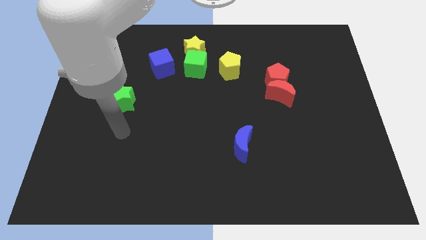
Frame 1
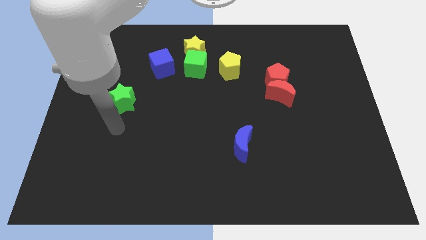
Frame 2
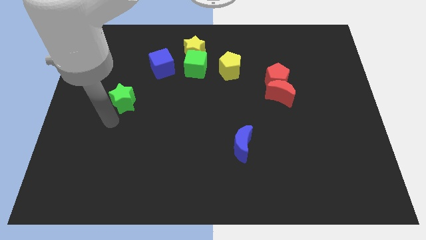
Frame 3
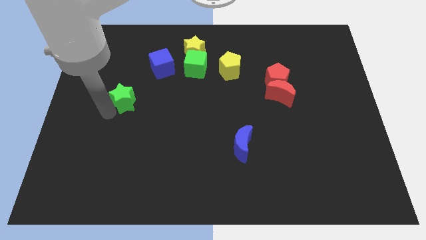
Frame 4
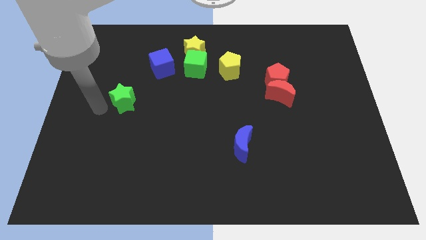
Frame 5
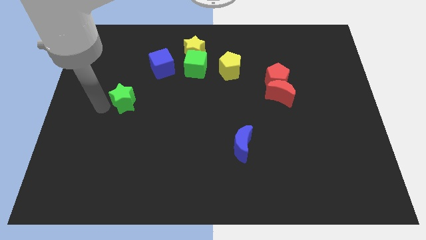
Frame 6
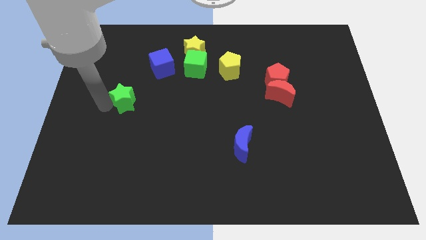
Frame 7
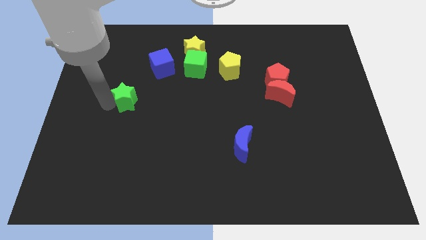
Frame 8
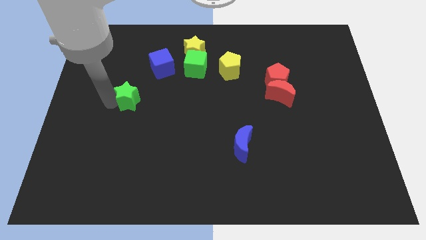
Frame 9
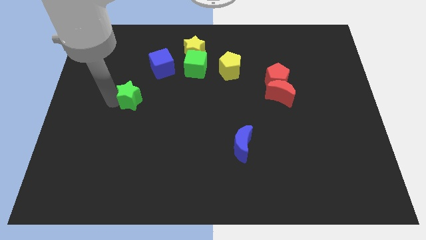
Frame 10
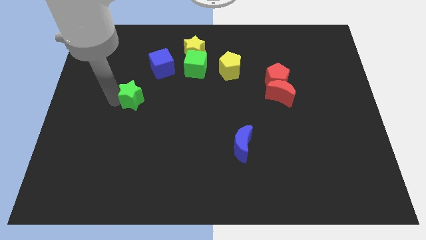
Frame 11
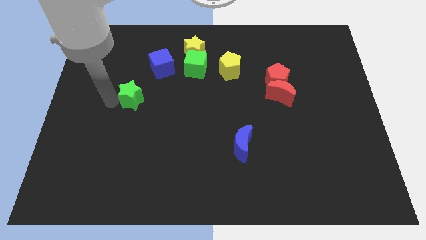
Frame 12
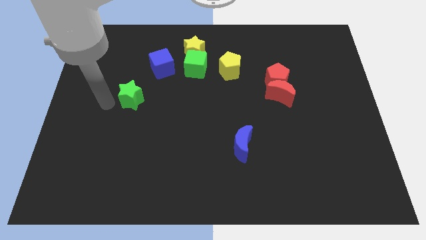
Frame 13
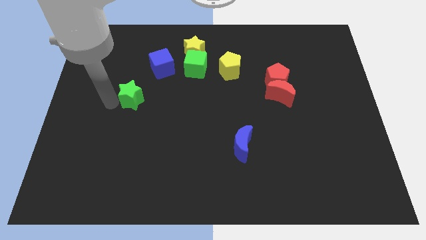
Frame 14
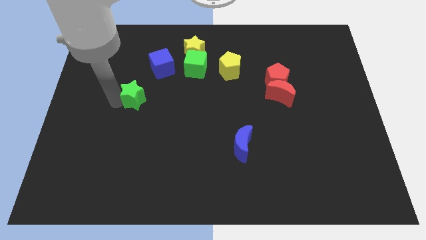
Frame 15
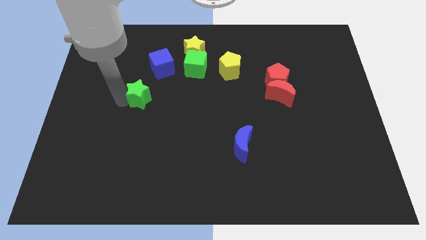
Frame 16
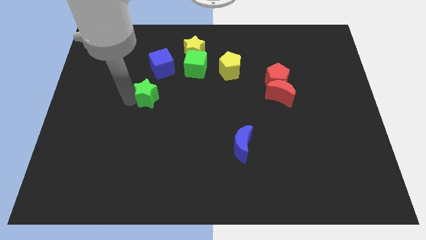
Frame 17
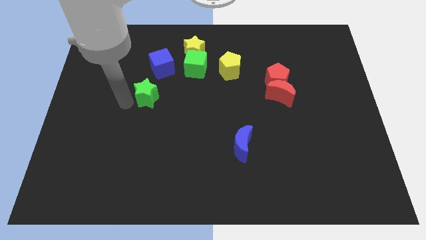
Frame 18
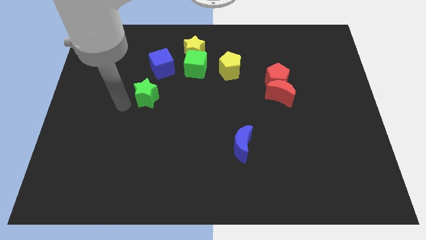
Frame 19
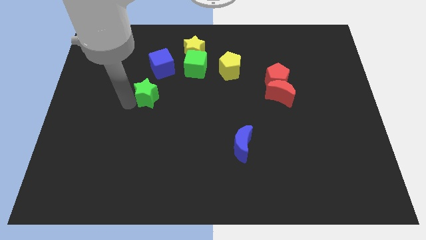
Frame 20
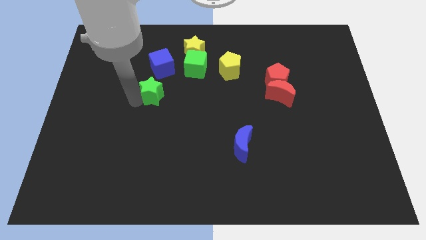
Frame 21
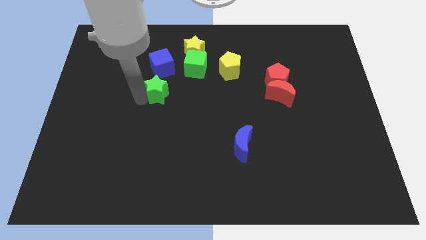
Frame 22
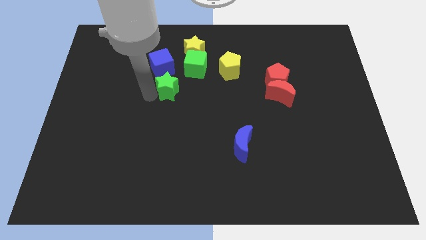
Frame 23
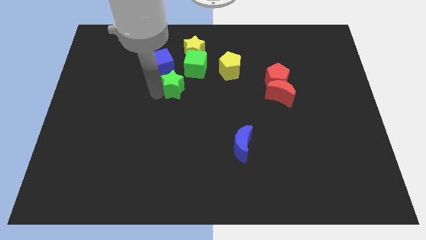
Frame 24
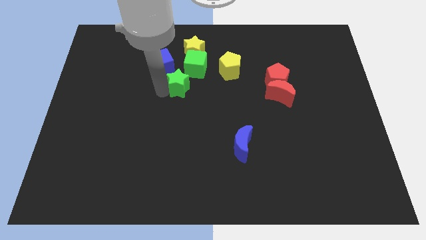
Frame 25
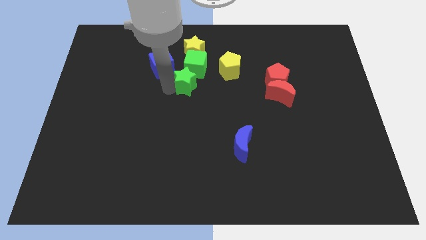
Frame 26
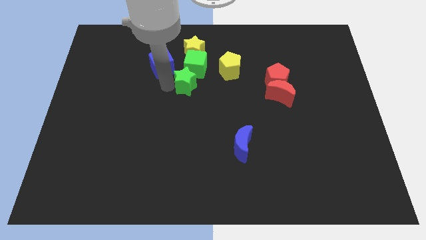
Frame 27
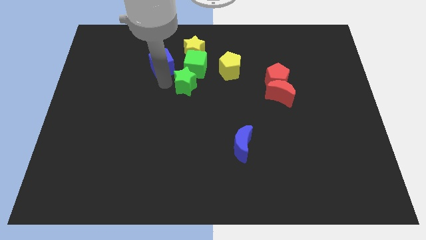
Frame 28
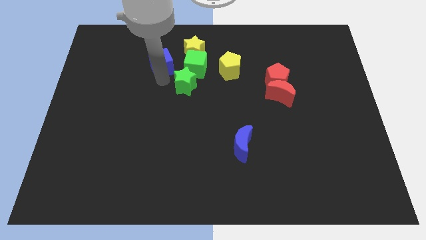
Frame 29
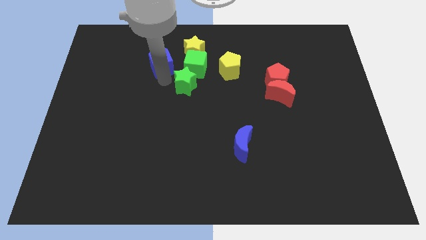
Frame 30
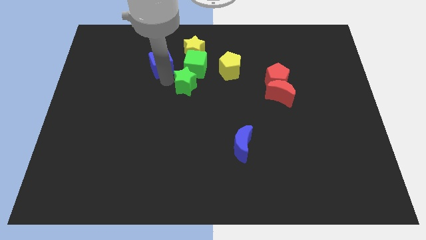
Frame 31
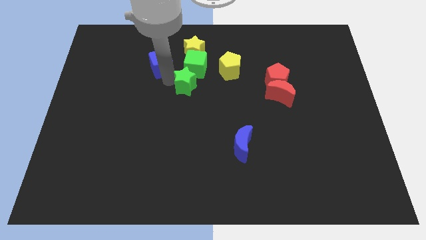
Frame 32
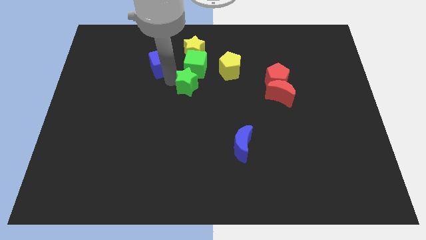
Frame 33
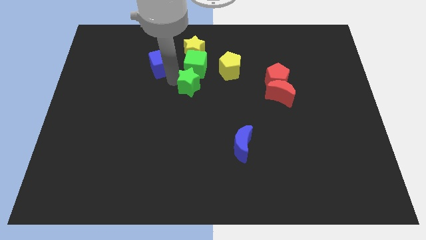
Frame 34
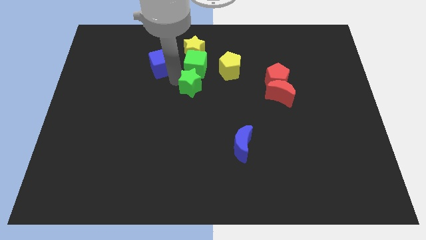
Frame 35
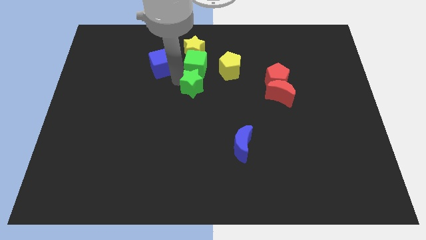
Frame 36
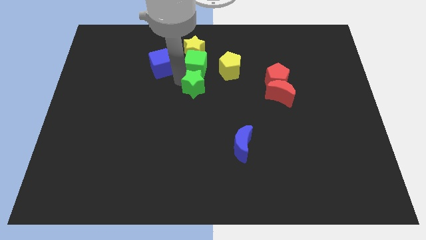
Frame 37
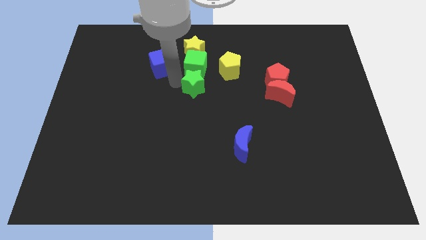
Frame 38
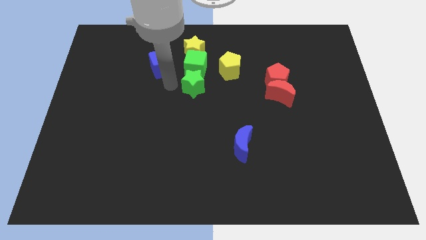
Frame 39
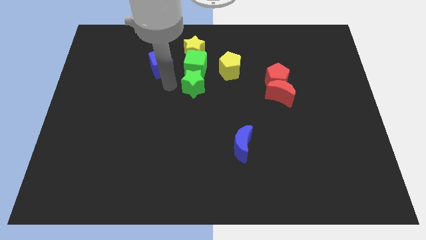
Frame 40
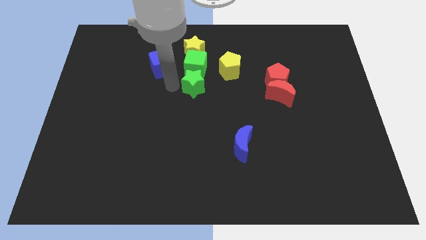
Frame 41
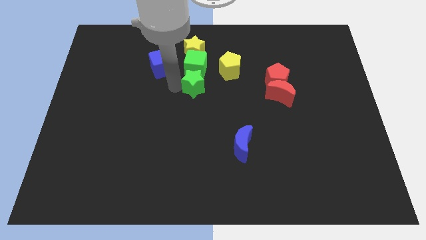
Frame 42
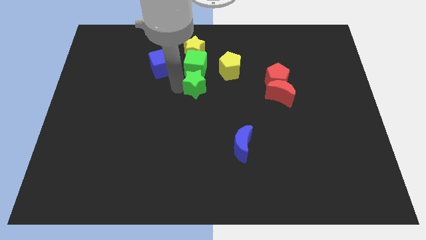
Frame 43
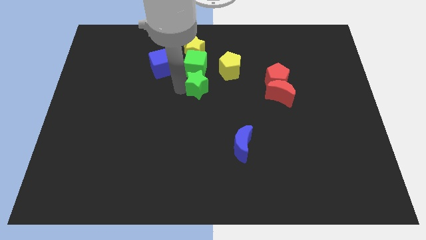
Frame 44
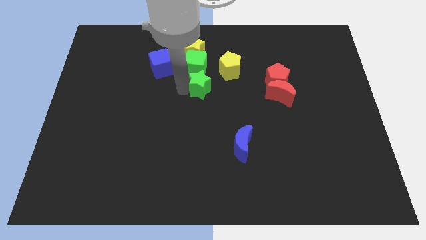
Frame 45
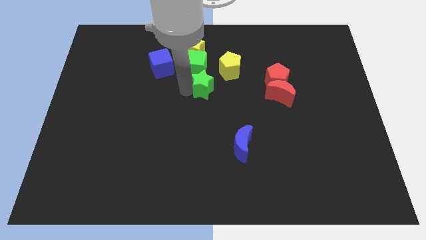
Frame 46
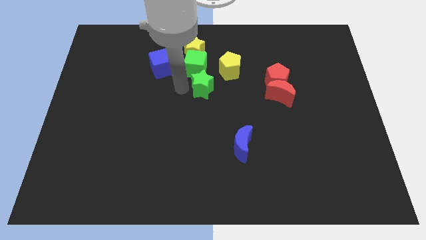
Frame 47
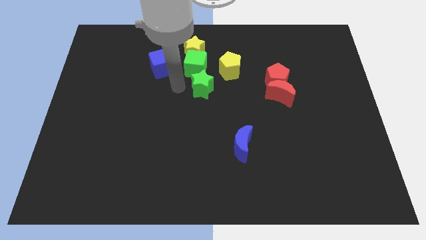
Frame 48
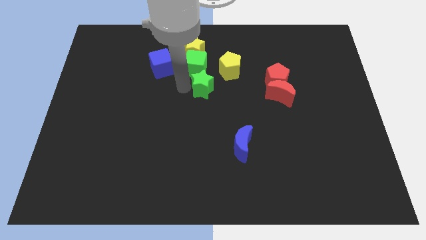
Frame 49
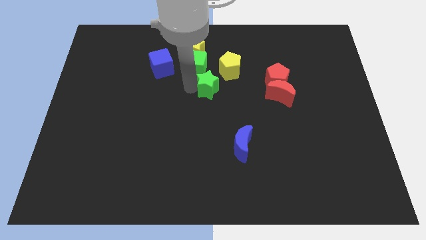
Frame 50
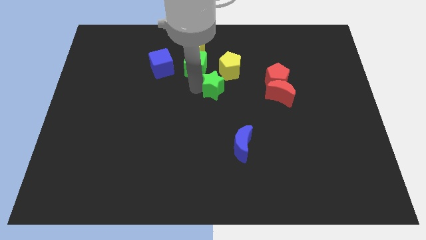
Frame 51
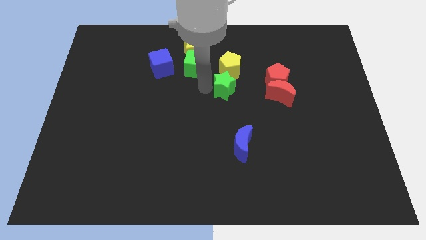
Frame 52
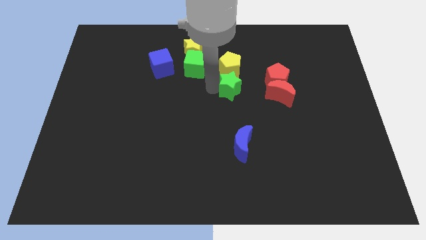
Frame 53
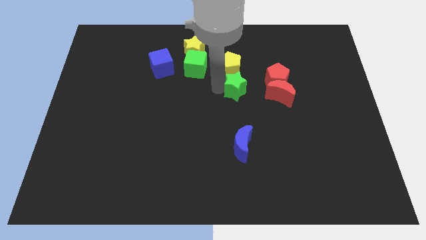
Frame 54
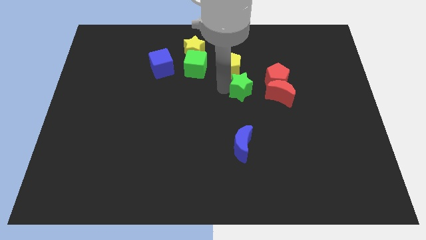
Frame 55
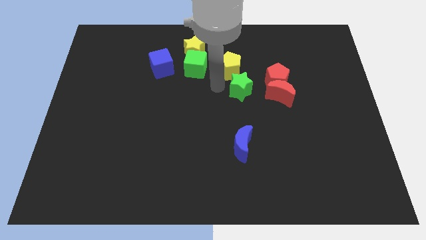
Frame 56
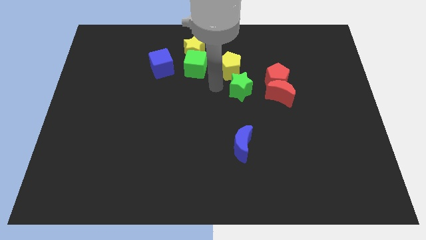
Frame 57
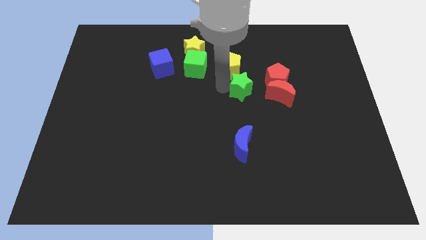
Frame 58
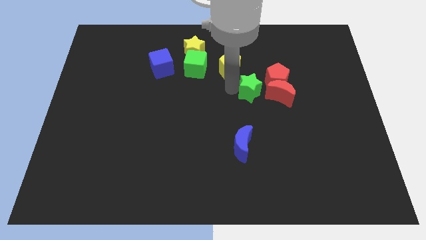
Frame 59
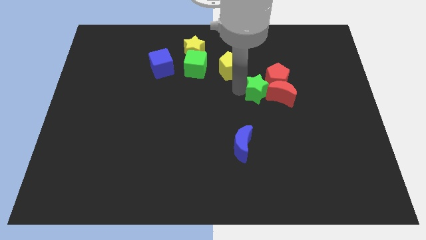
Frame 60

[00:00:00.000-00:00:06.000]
move the green star close to the red moon

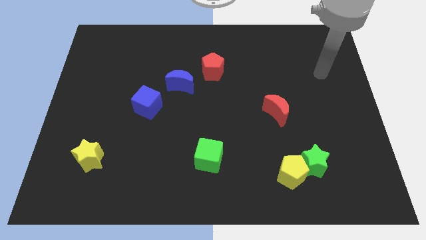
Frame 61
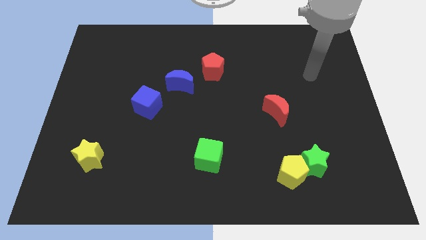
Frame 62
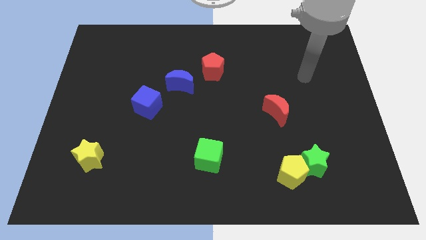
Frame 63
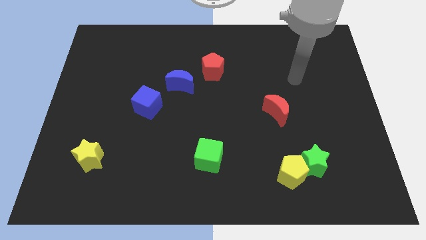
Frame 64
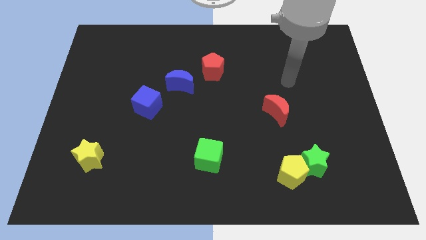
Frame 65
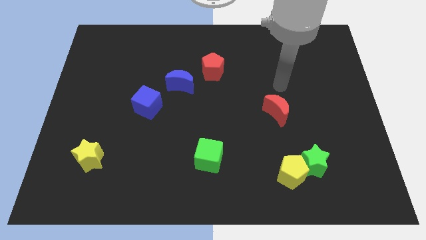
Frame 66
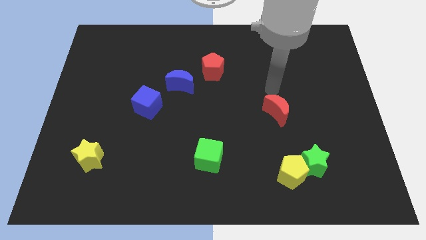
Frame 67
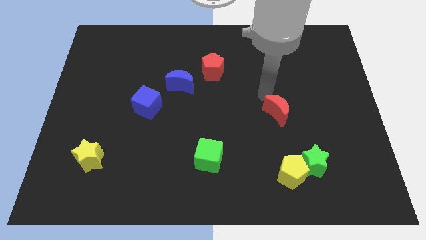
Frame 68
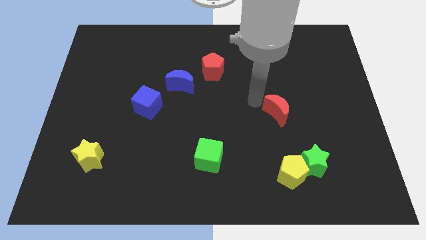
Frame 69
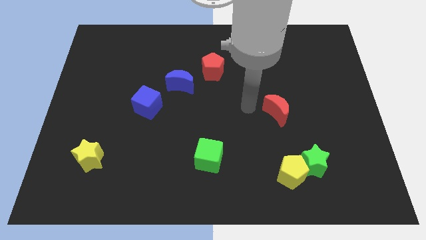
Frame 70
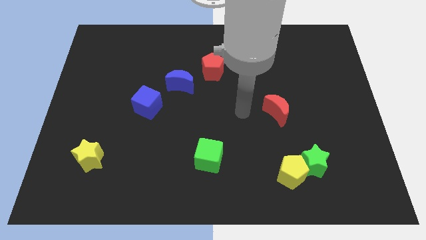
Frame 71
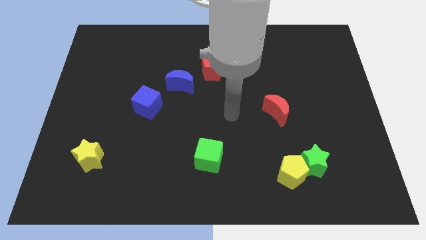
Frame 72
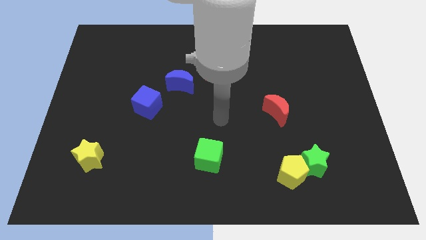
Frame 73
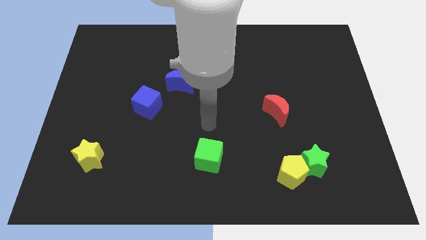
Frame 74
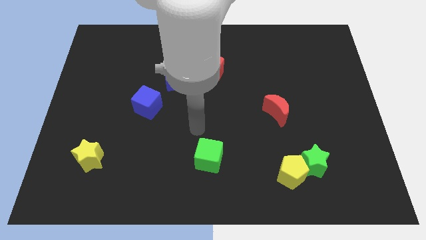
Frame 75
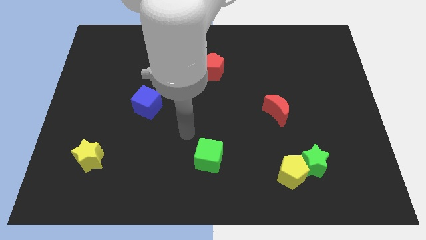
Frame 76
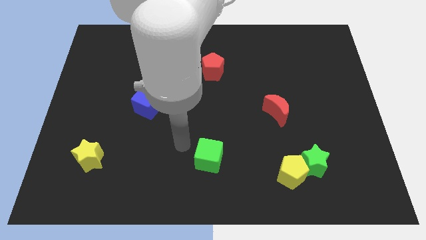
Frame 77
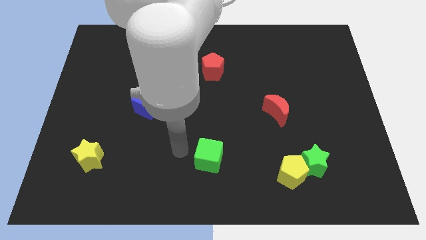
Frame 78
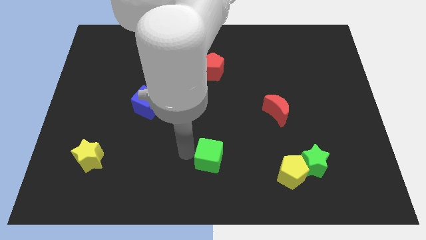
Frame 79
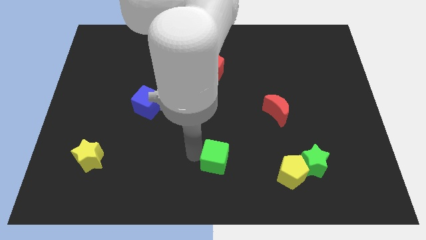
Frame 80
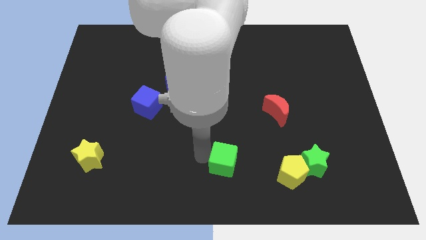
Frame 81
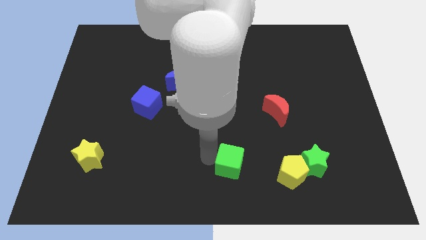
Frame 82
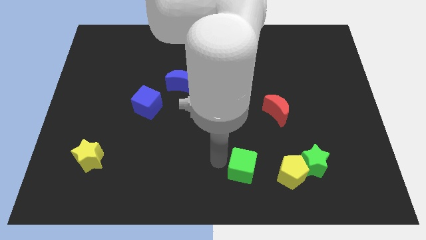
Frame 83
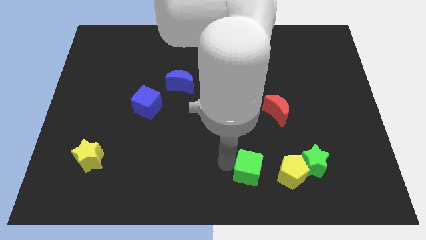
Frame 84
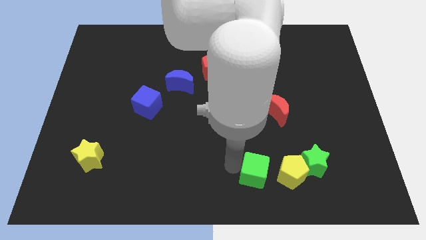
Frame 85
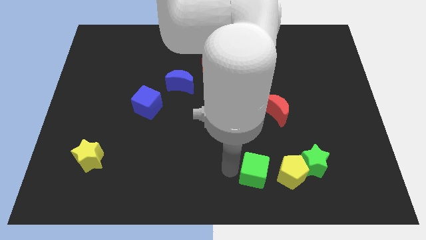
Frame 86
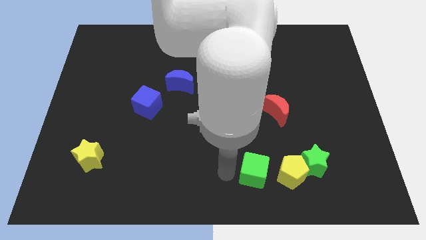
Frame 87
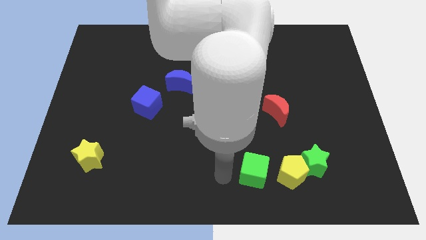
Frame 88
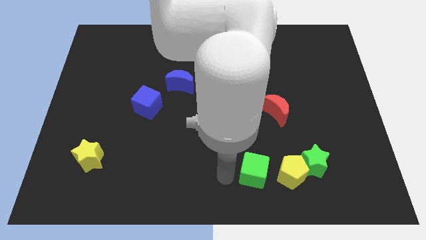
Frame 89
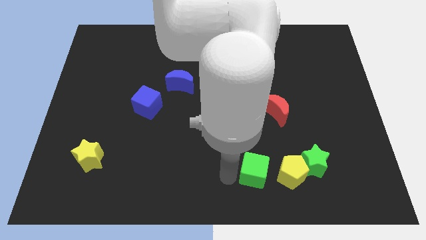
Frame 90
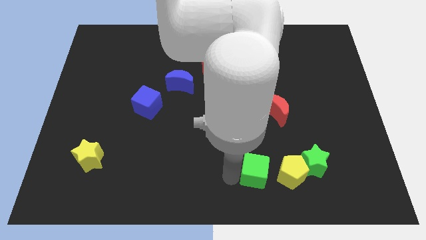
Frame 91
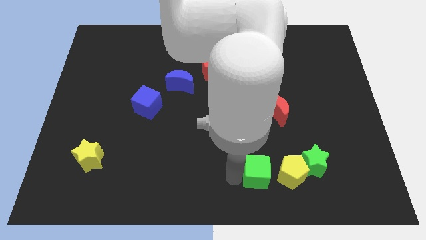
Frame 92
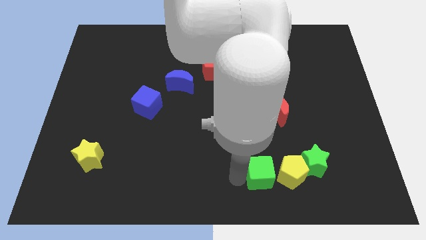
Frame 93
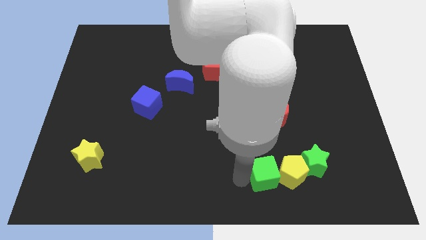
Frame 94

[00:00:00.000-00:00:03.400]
push the green cube towards the yellow pentagon
